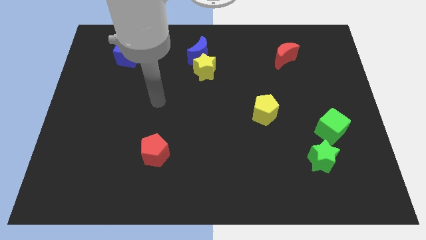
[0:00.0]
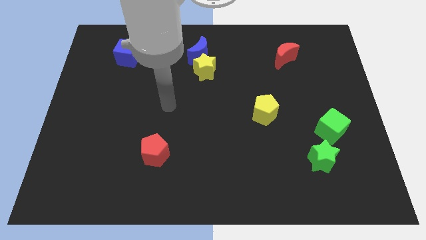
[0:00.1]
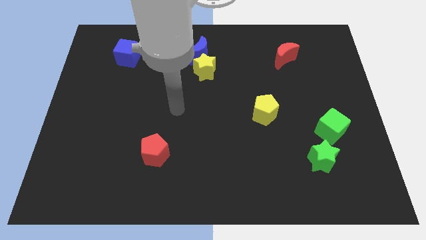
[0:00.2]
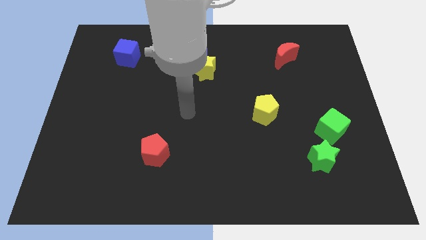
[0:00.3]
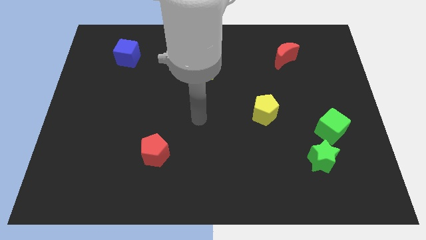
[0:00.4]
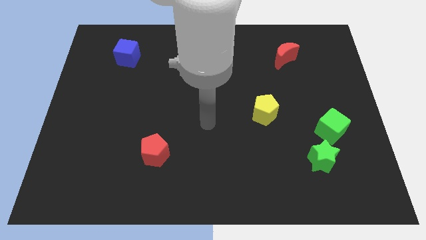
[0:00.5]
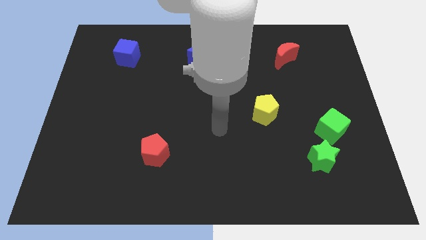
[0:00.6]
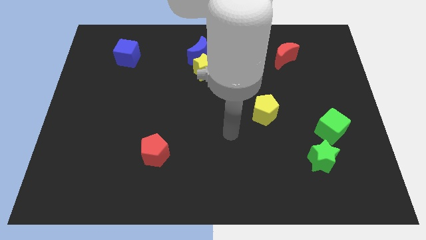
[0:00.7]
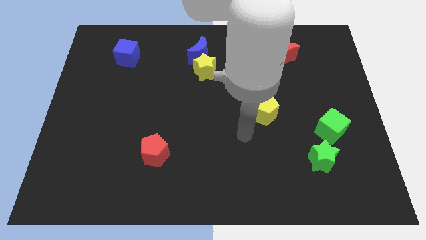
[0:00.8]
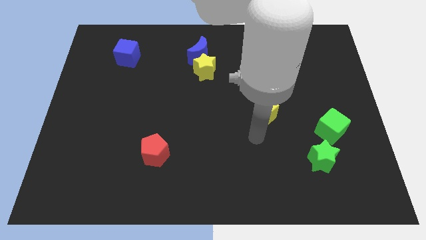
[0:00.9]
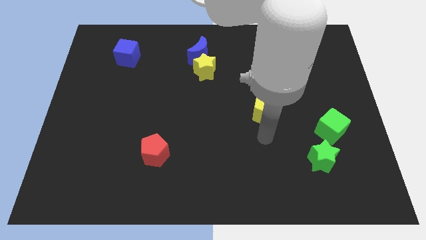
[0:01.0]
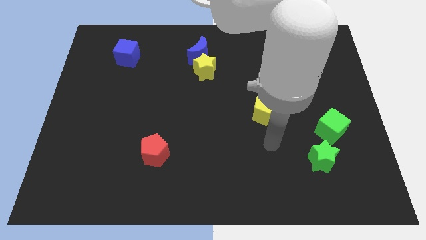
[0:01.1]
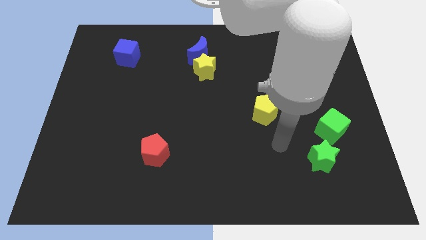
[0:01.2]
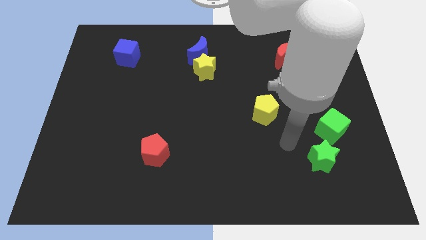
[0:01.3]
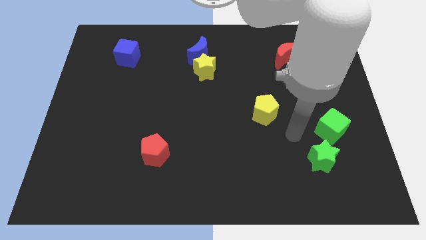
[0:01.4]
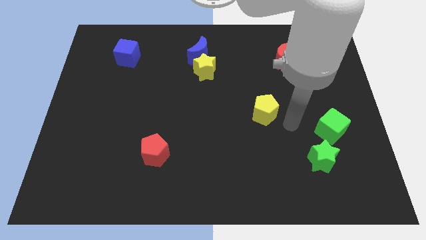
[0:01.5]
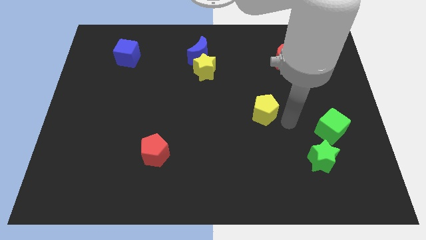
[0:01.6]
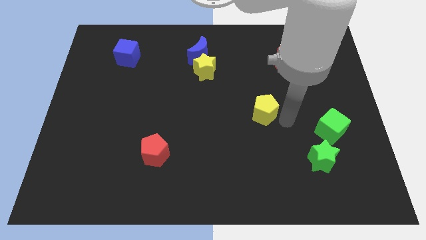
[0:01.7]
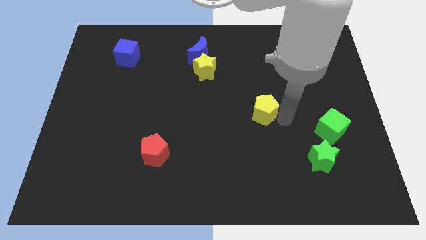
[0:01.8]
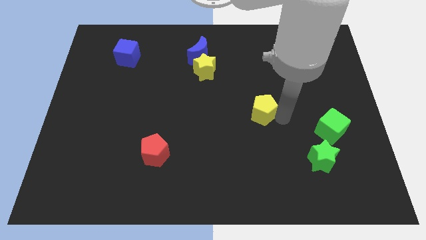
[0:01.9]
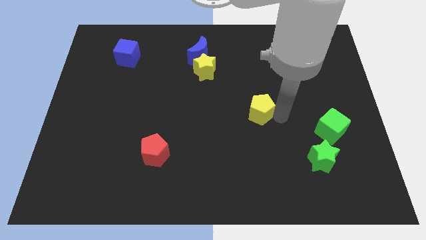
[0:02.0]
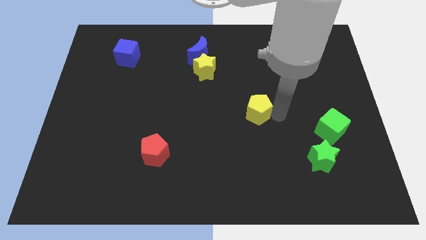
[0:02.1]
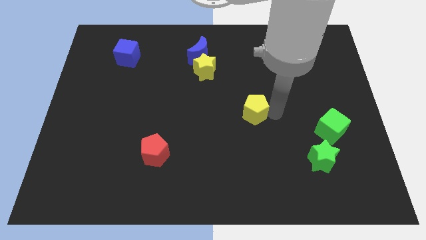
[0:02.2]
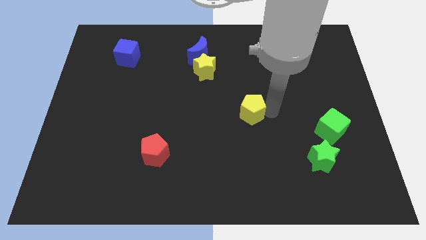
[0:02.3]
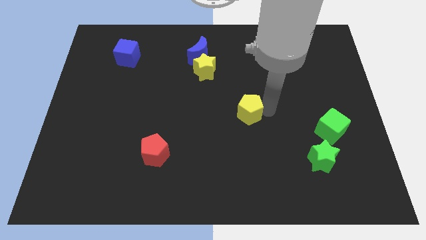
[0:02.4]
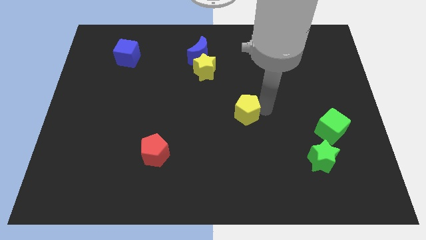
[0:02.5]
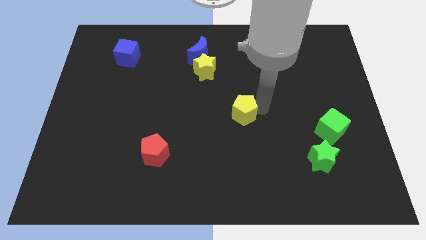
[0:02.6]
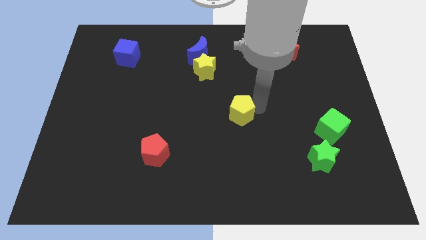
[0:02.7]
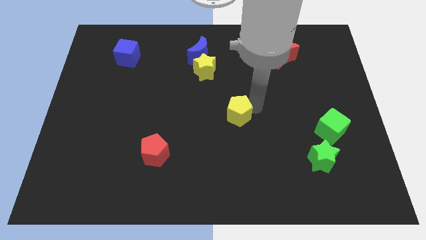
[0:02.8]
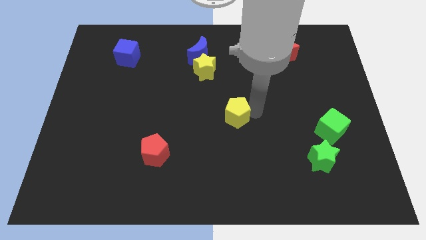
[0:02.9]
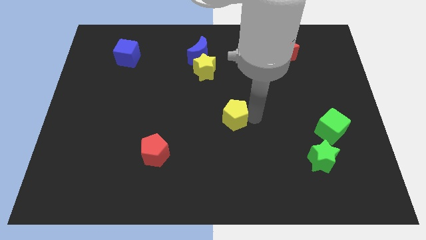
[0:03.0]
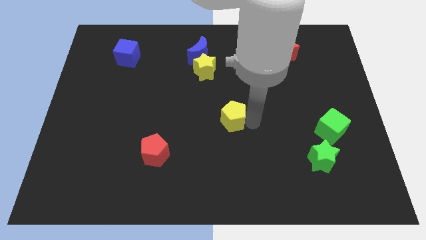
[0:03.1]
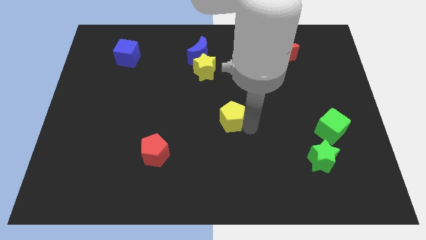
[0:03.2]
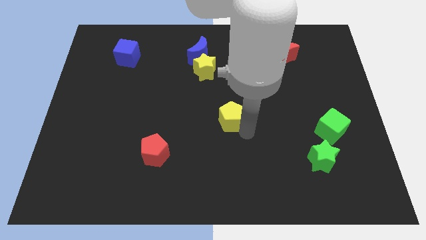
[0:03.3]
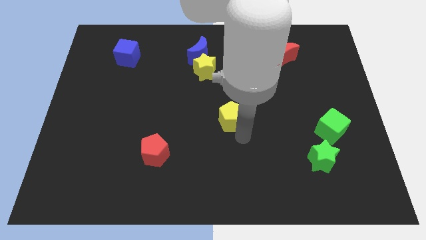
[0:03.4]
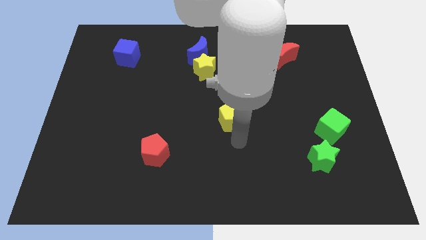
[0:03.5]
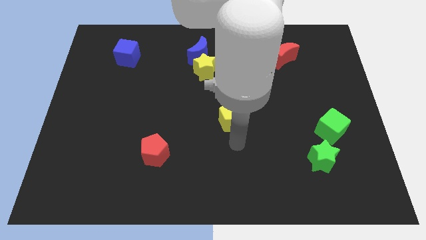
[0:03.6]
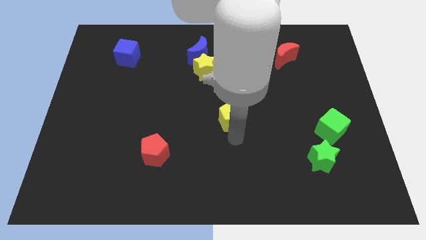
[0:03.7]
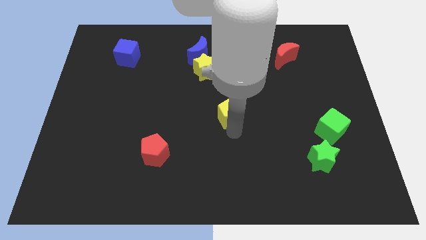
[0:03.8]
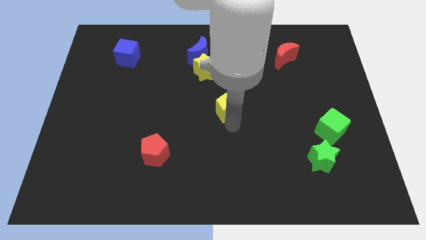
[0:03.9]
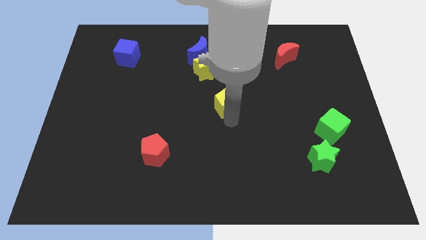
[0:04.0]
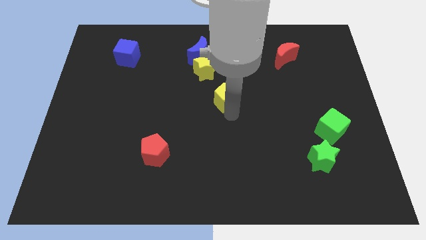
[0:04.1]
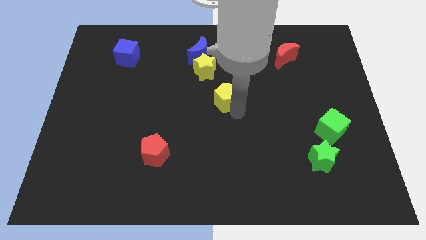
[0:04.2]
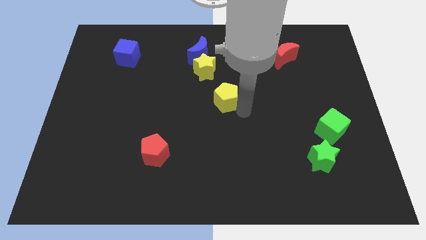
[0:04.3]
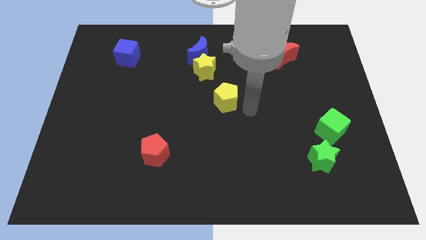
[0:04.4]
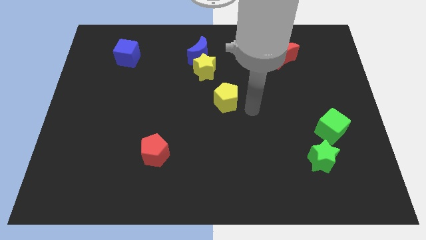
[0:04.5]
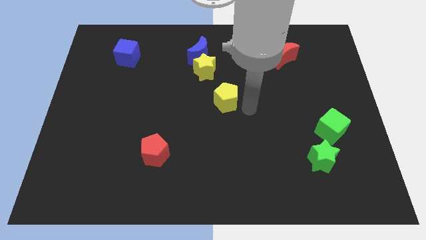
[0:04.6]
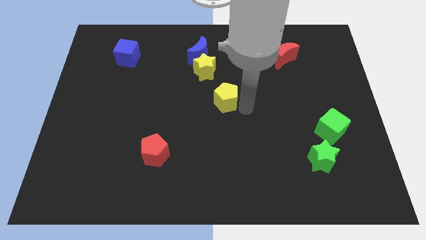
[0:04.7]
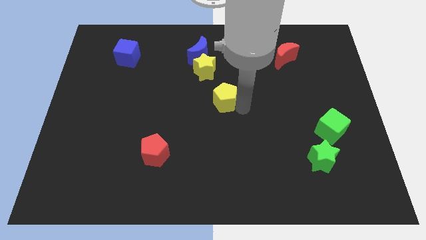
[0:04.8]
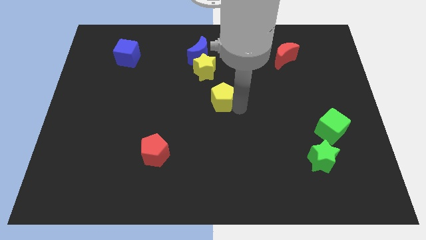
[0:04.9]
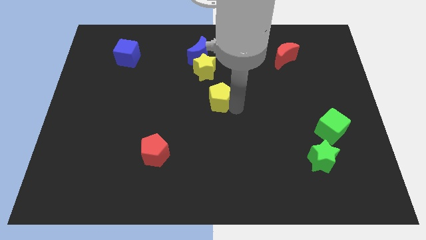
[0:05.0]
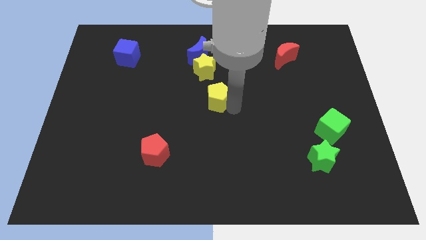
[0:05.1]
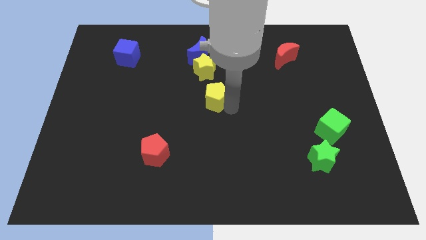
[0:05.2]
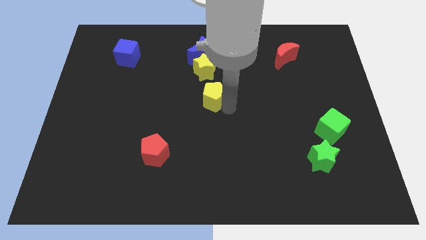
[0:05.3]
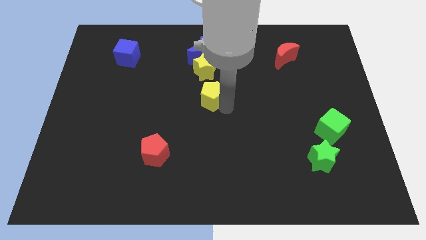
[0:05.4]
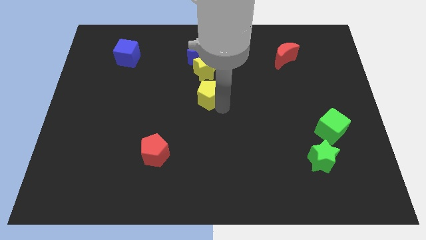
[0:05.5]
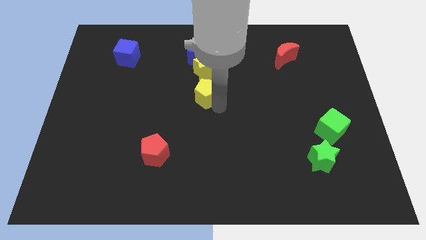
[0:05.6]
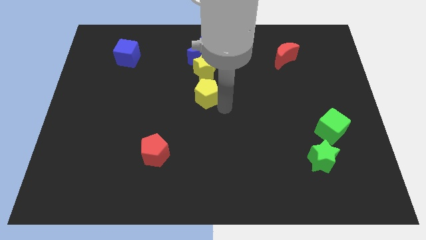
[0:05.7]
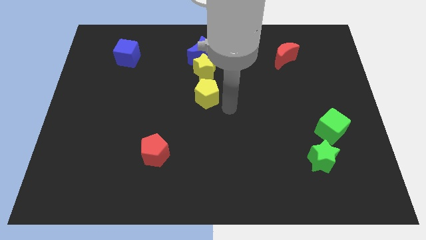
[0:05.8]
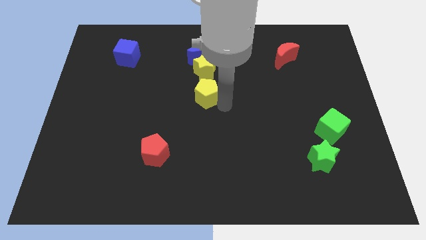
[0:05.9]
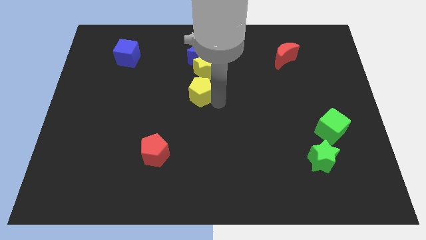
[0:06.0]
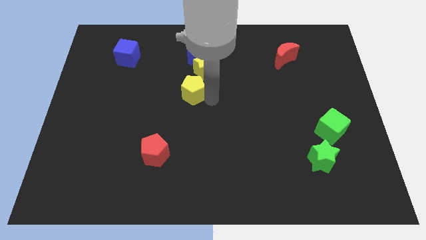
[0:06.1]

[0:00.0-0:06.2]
put the yellow pentagon to the bottom left of the yellow star

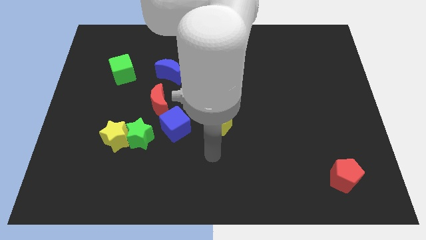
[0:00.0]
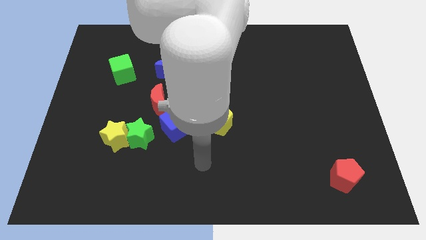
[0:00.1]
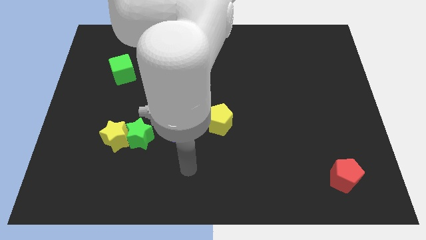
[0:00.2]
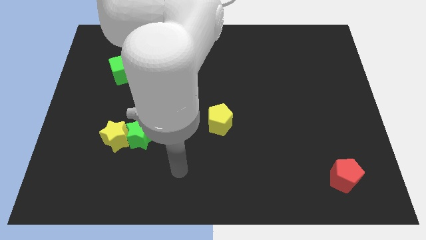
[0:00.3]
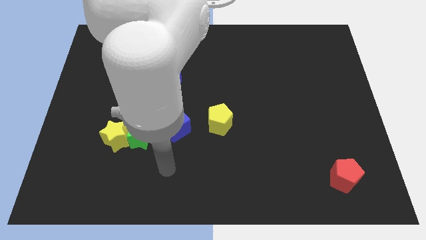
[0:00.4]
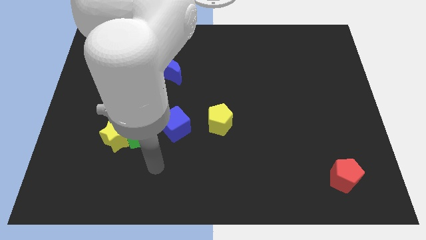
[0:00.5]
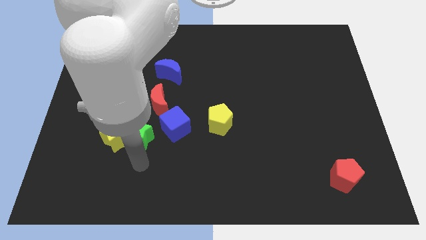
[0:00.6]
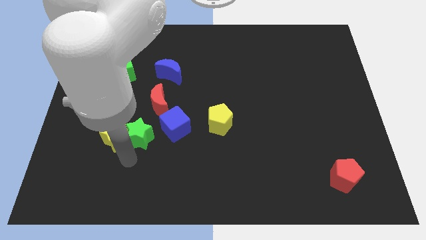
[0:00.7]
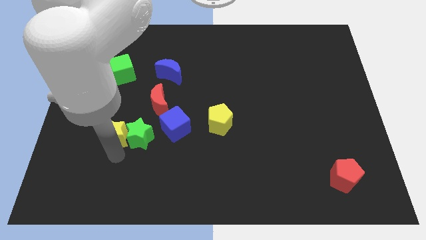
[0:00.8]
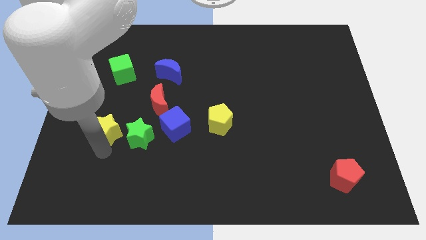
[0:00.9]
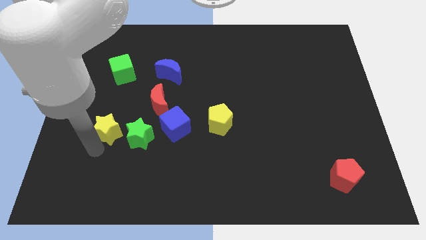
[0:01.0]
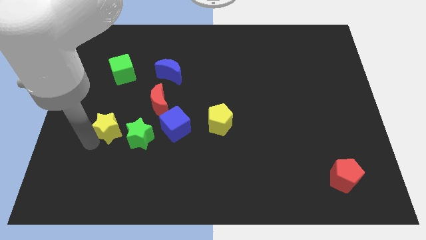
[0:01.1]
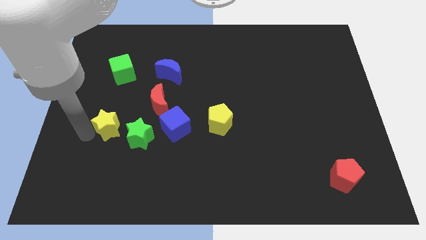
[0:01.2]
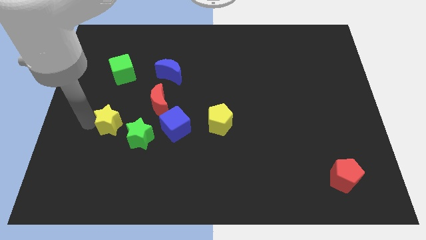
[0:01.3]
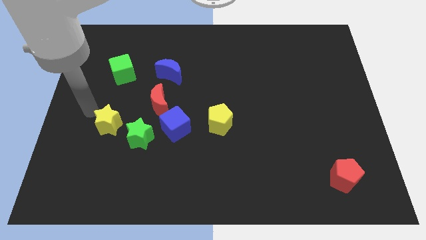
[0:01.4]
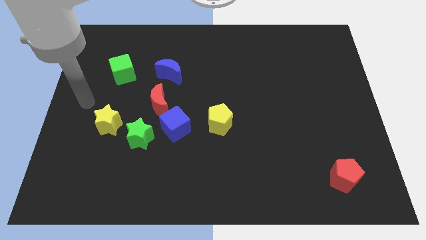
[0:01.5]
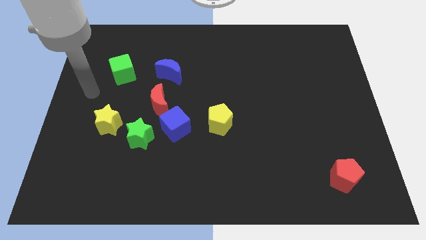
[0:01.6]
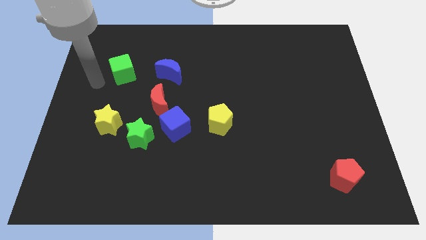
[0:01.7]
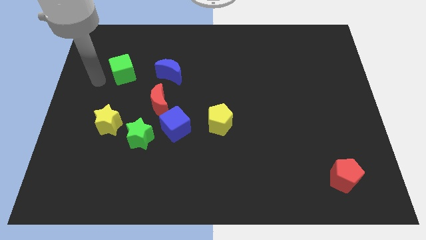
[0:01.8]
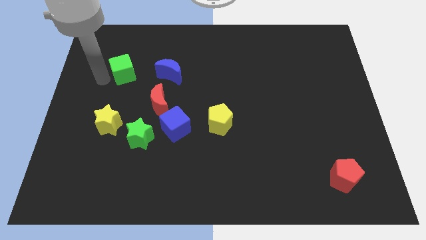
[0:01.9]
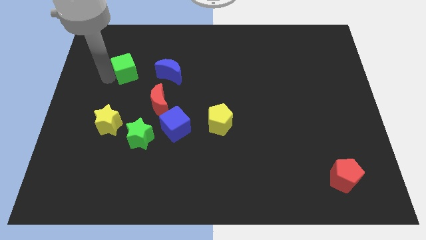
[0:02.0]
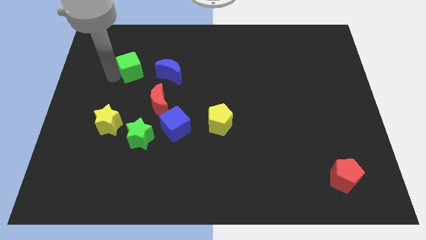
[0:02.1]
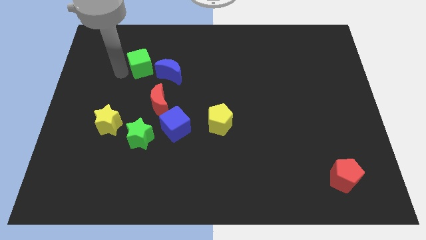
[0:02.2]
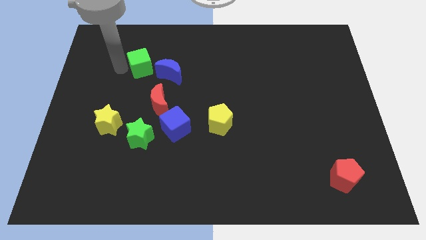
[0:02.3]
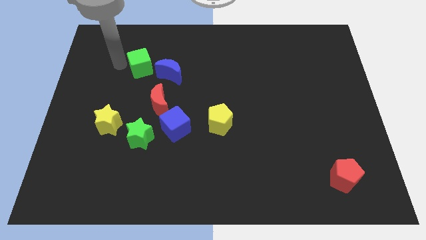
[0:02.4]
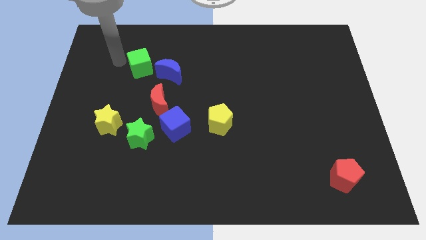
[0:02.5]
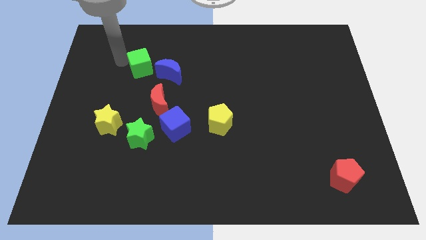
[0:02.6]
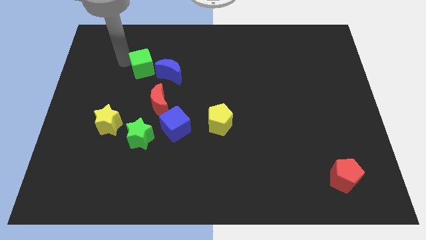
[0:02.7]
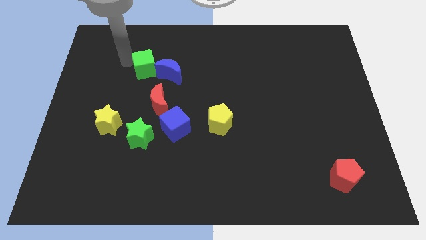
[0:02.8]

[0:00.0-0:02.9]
push the green cube above the red moon
